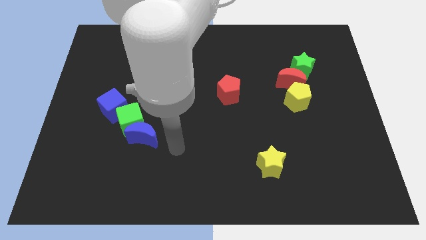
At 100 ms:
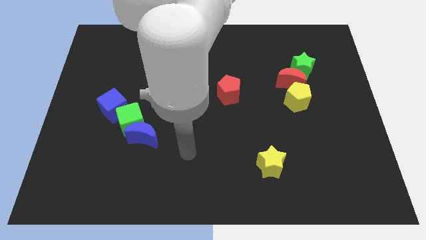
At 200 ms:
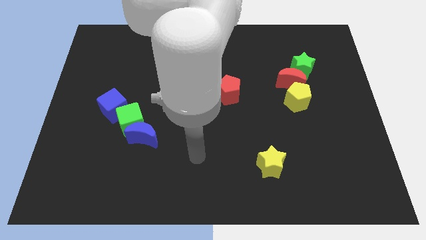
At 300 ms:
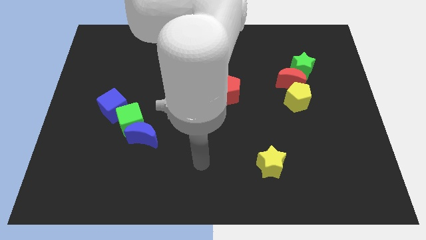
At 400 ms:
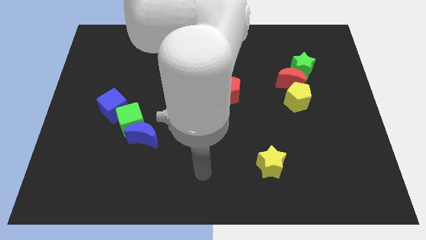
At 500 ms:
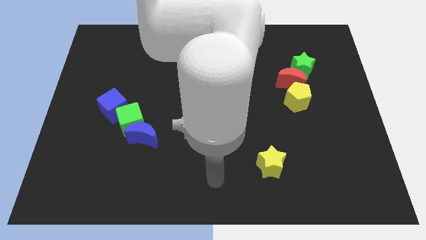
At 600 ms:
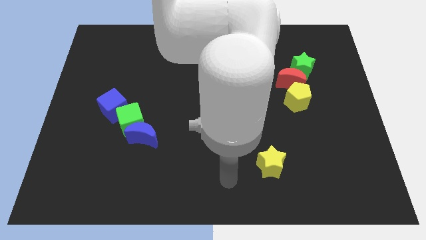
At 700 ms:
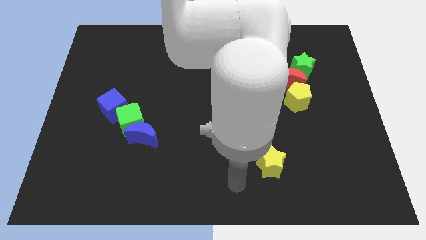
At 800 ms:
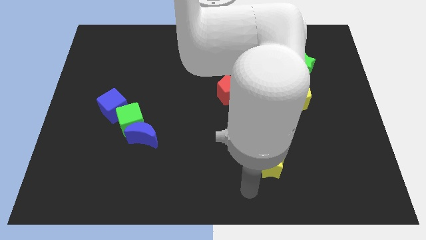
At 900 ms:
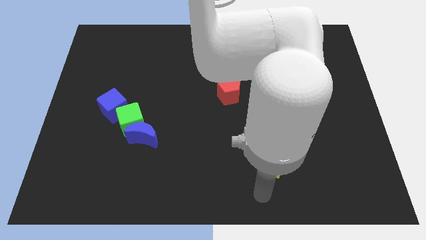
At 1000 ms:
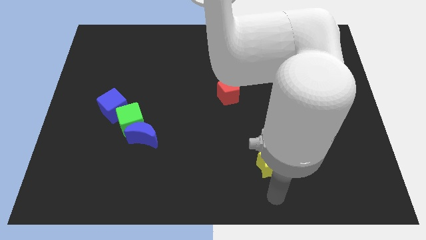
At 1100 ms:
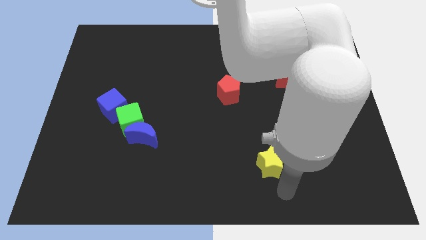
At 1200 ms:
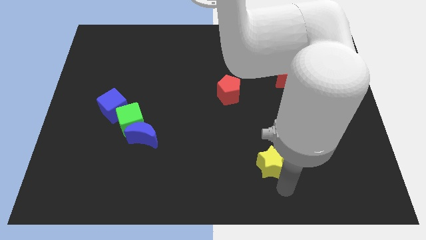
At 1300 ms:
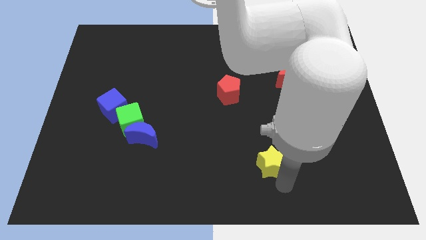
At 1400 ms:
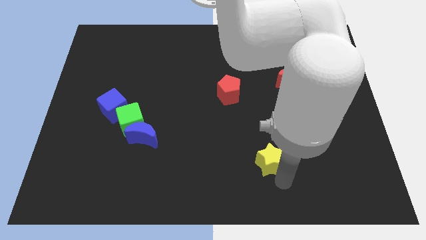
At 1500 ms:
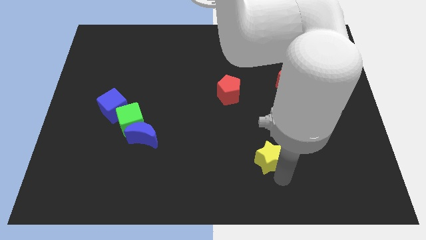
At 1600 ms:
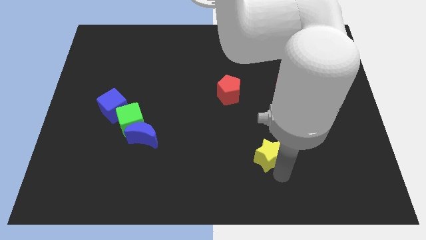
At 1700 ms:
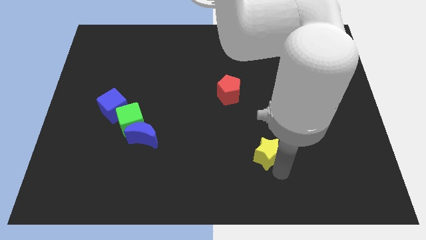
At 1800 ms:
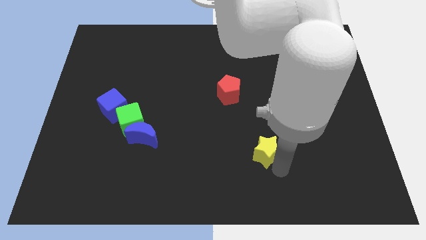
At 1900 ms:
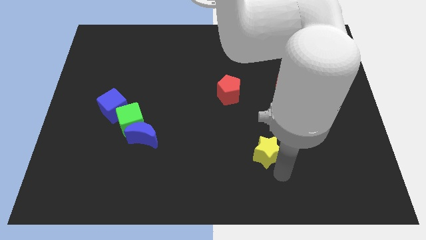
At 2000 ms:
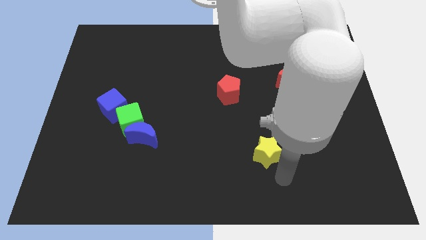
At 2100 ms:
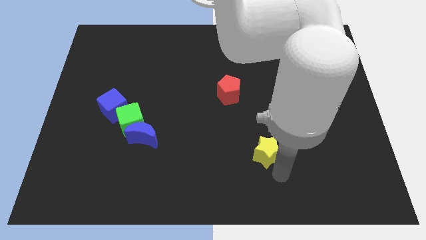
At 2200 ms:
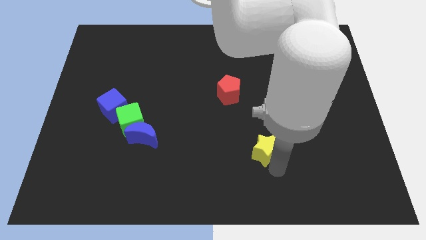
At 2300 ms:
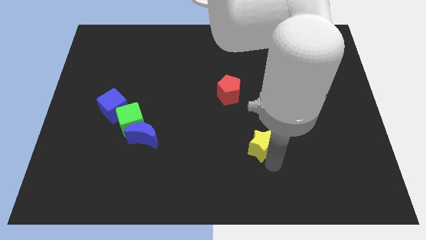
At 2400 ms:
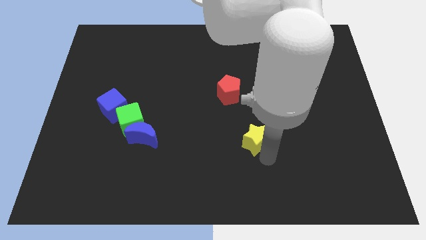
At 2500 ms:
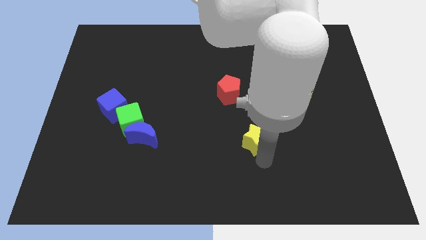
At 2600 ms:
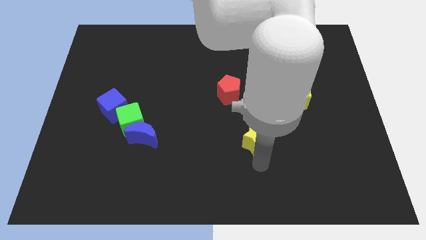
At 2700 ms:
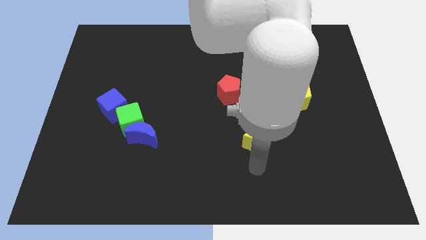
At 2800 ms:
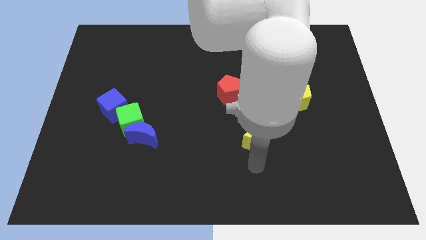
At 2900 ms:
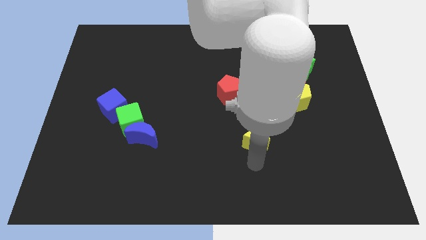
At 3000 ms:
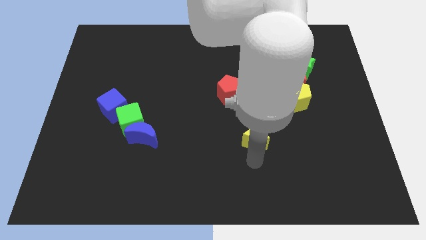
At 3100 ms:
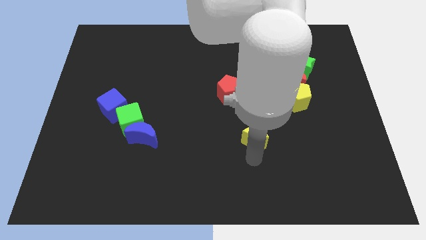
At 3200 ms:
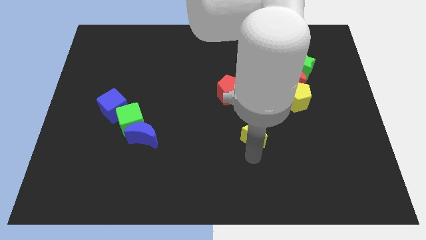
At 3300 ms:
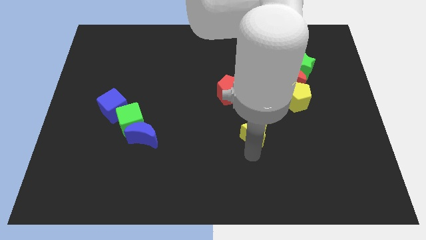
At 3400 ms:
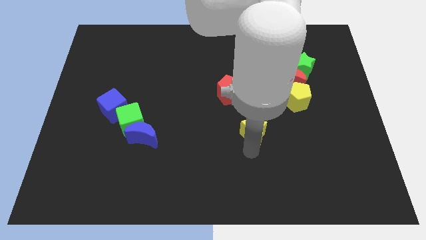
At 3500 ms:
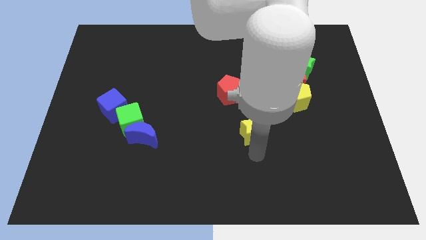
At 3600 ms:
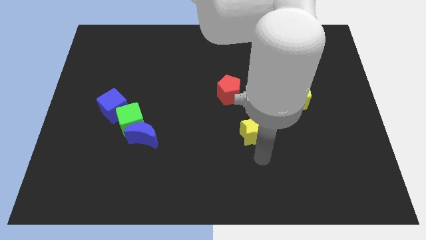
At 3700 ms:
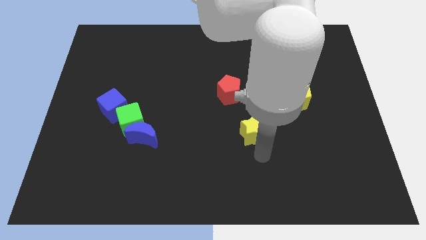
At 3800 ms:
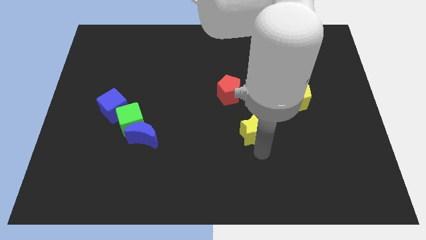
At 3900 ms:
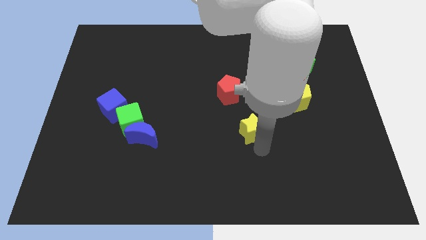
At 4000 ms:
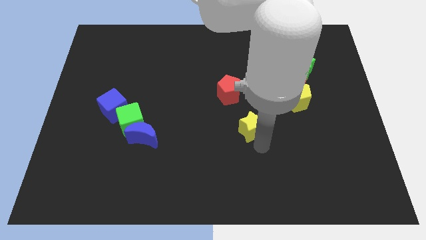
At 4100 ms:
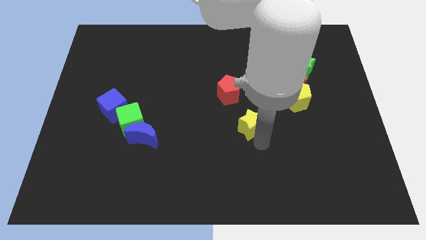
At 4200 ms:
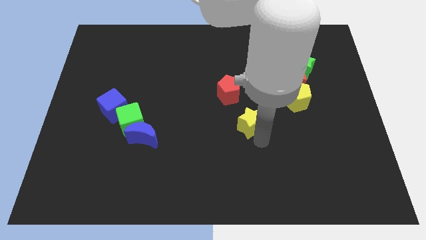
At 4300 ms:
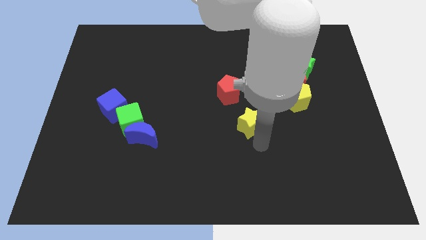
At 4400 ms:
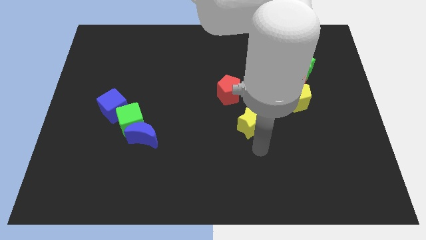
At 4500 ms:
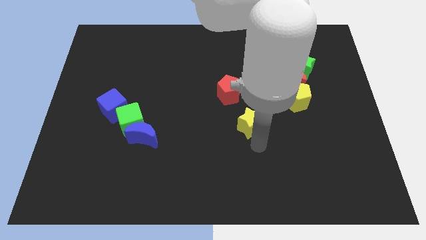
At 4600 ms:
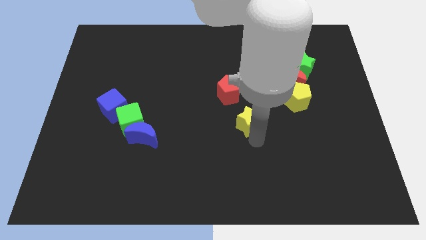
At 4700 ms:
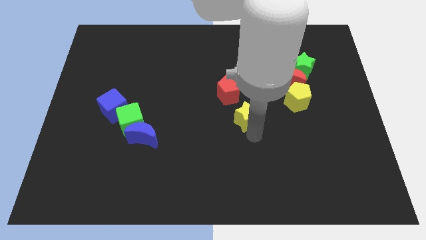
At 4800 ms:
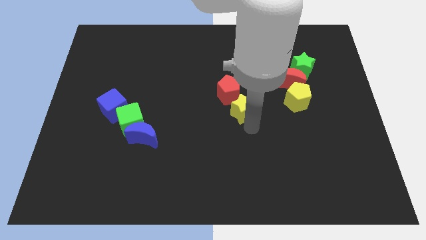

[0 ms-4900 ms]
push the yellow star towards the red pentagon

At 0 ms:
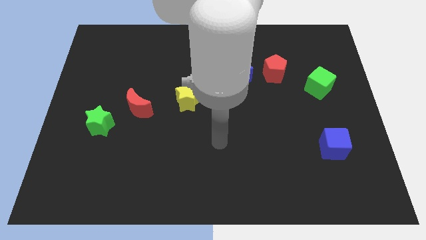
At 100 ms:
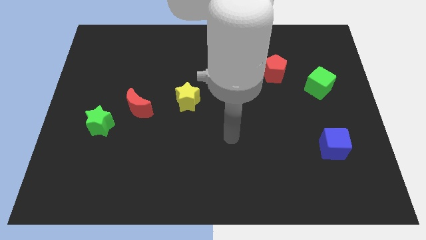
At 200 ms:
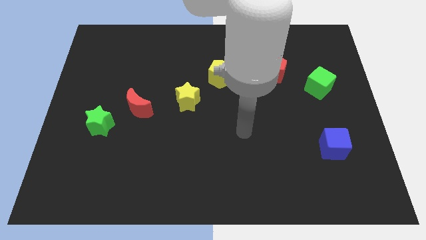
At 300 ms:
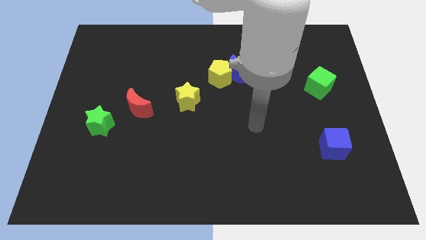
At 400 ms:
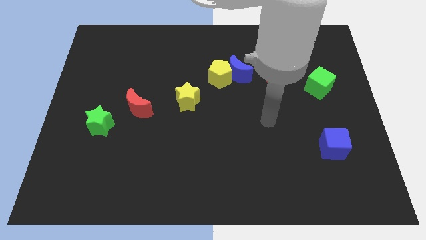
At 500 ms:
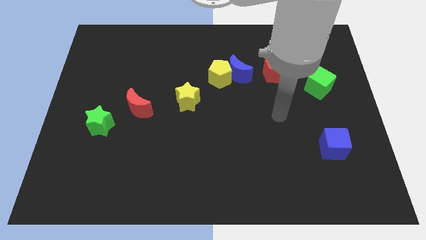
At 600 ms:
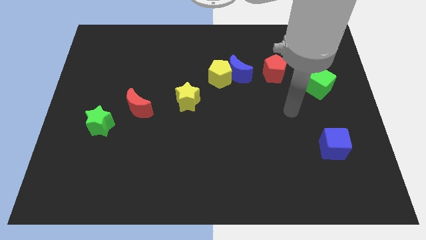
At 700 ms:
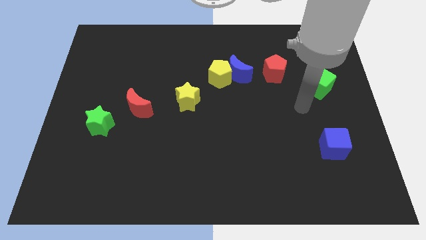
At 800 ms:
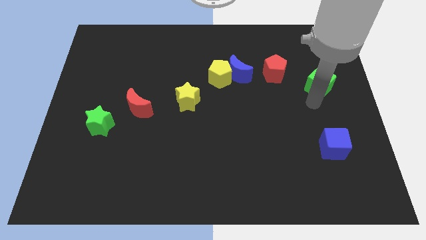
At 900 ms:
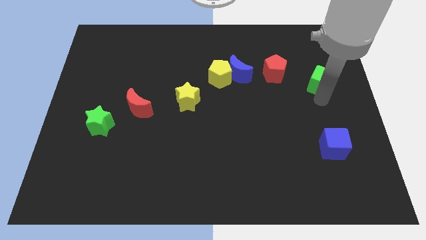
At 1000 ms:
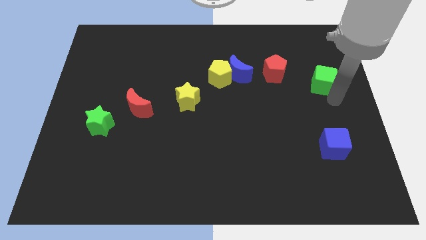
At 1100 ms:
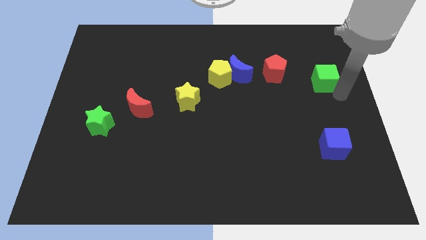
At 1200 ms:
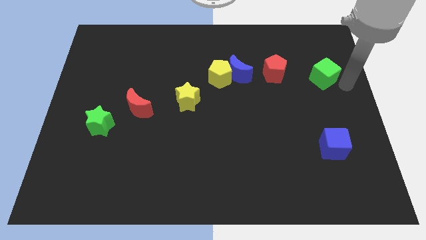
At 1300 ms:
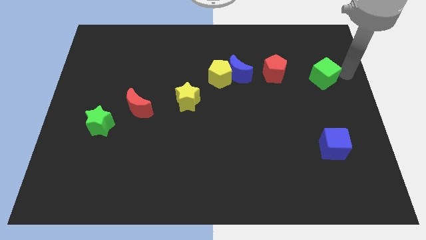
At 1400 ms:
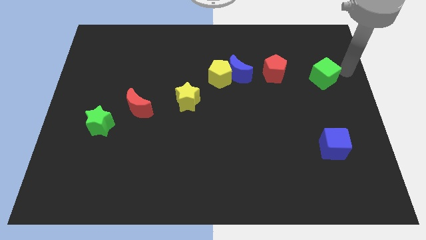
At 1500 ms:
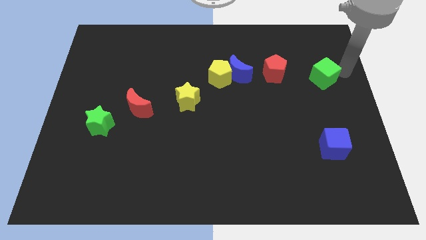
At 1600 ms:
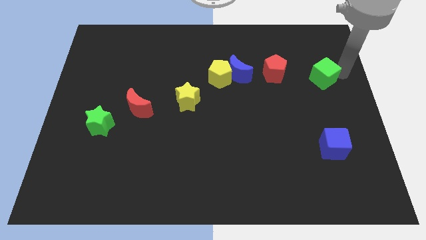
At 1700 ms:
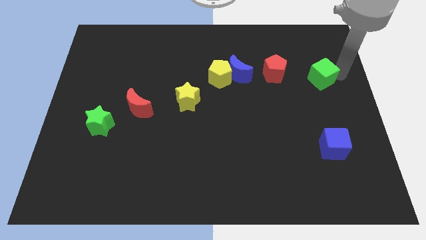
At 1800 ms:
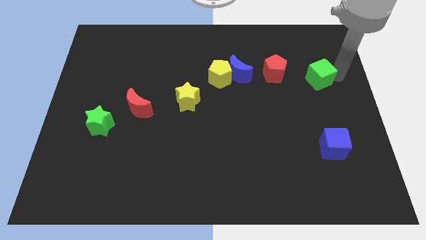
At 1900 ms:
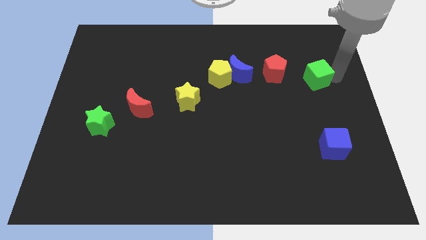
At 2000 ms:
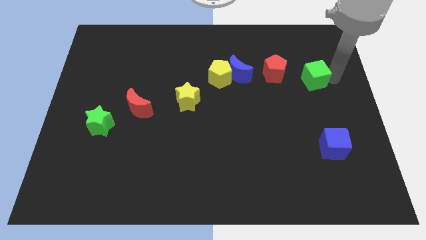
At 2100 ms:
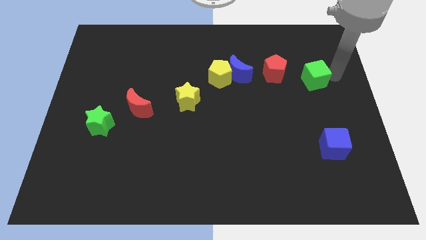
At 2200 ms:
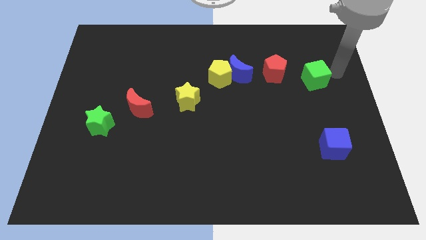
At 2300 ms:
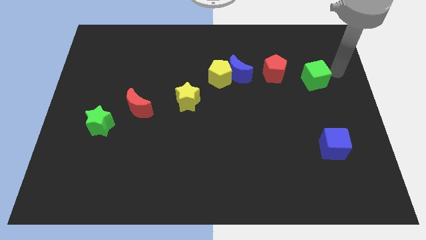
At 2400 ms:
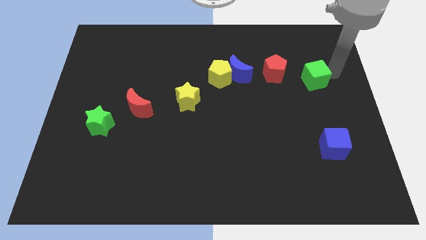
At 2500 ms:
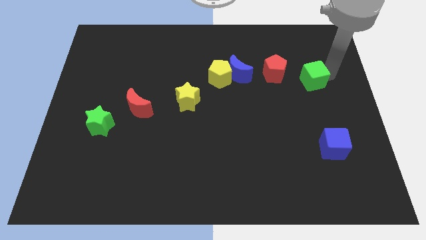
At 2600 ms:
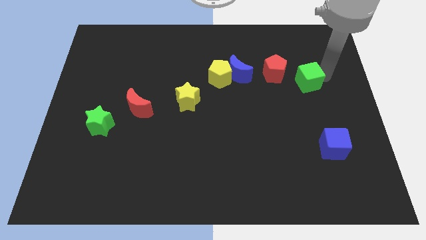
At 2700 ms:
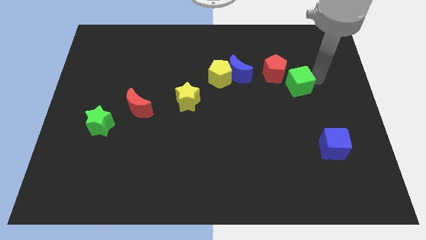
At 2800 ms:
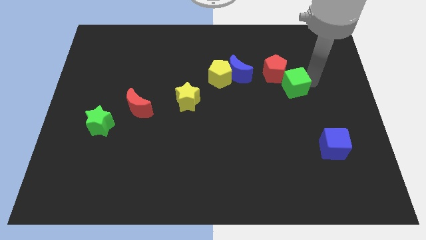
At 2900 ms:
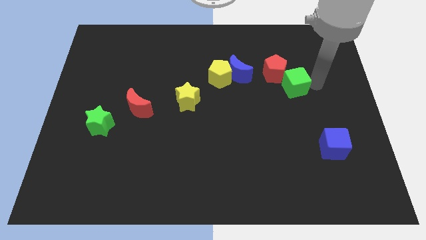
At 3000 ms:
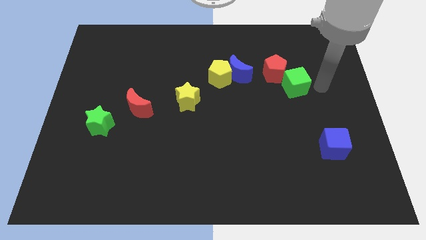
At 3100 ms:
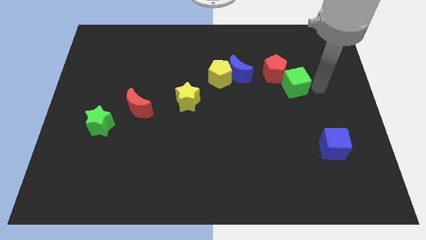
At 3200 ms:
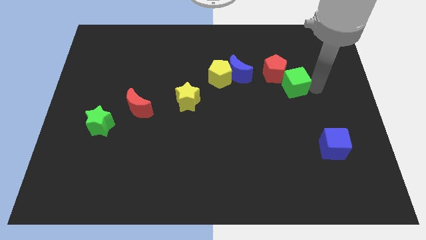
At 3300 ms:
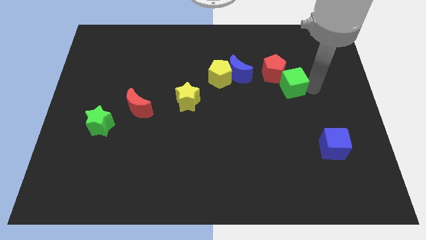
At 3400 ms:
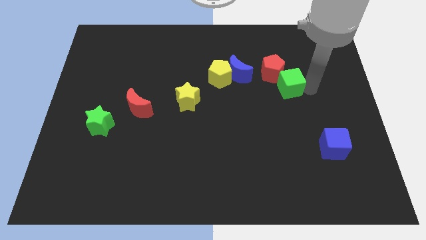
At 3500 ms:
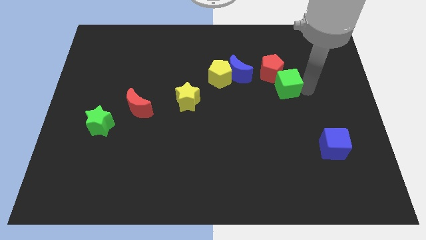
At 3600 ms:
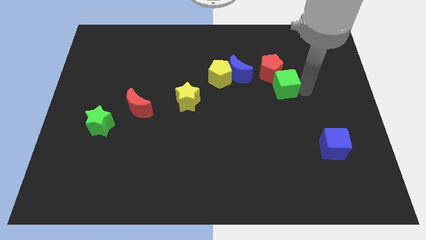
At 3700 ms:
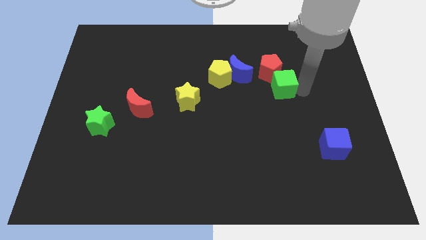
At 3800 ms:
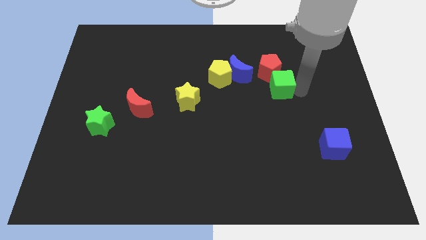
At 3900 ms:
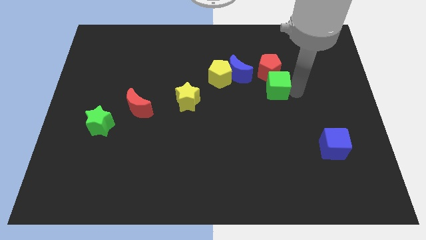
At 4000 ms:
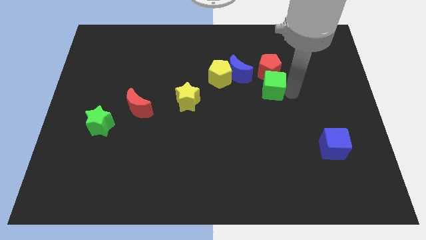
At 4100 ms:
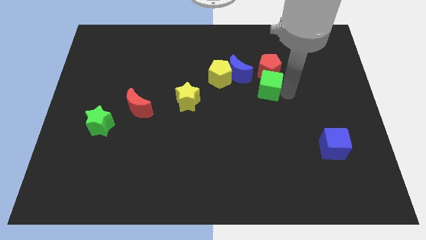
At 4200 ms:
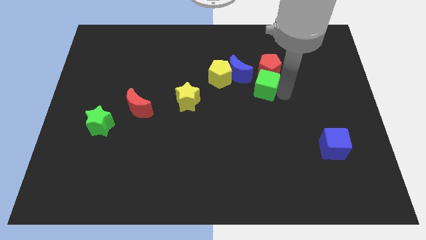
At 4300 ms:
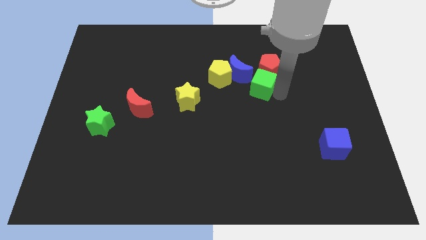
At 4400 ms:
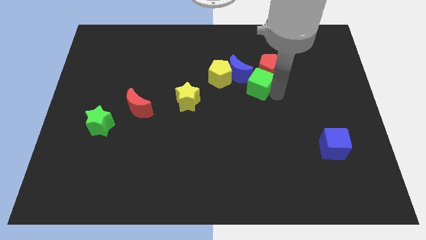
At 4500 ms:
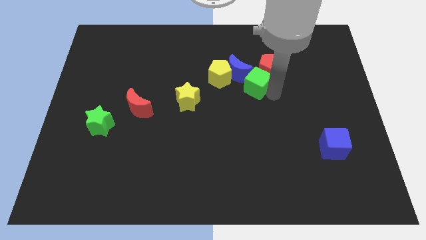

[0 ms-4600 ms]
move the green cube to the blue moon
